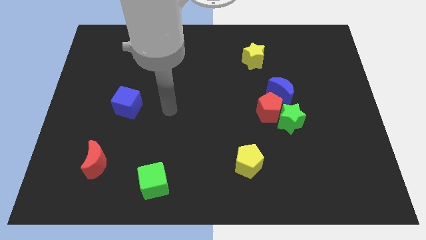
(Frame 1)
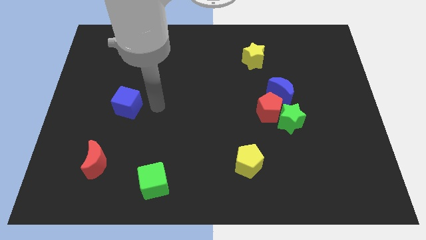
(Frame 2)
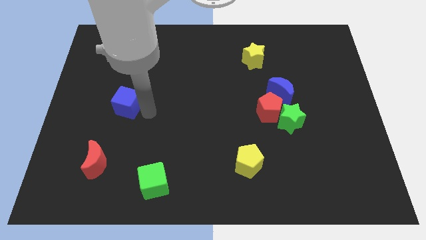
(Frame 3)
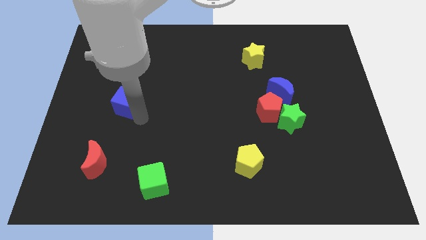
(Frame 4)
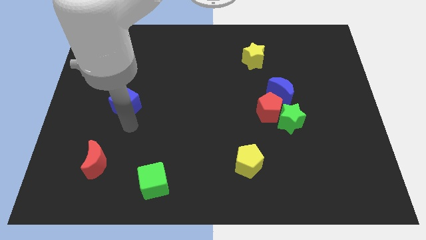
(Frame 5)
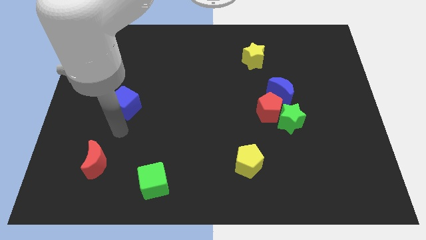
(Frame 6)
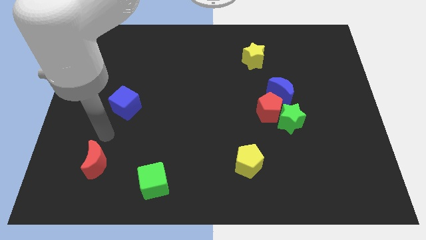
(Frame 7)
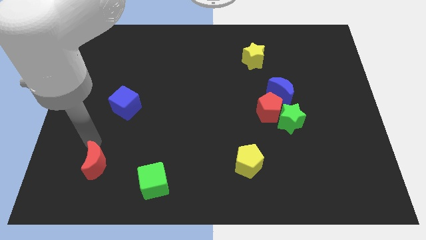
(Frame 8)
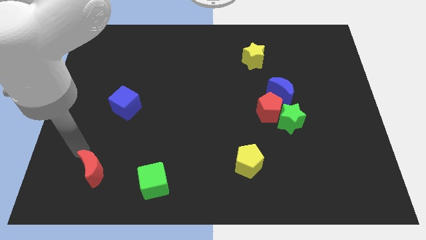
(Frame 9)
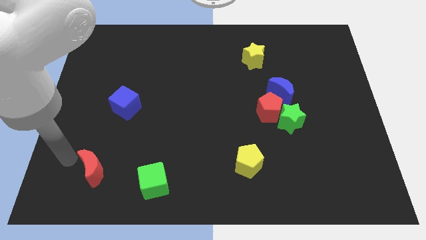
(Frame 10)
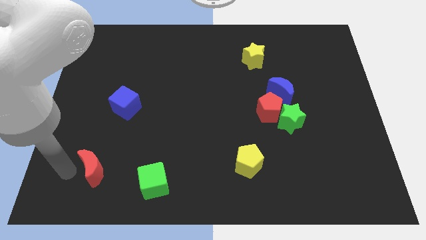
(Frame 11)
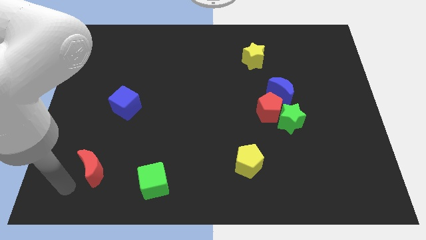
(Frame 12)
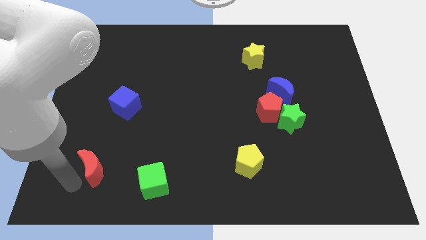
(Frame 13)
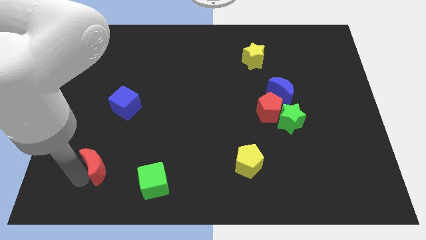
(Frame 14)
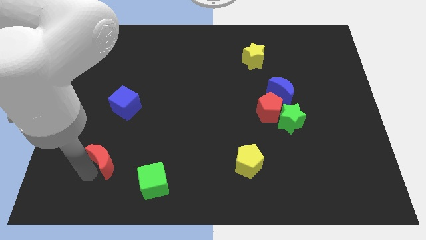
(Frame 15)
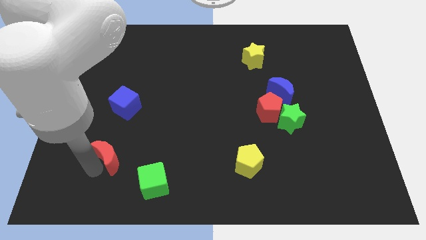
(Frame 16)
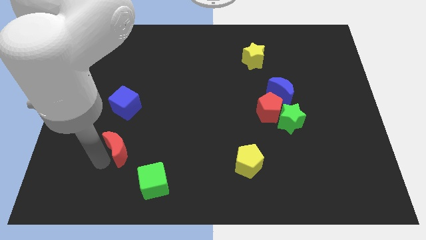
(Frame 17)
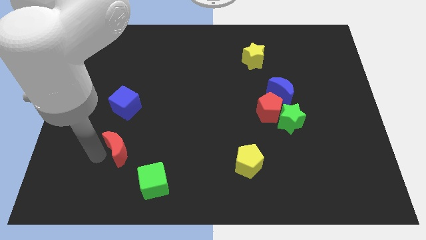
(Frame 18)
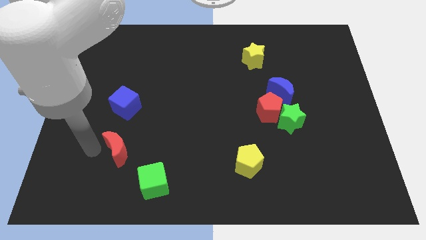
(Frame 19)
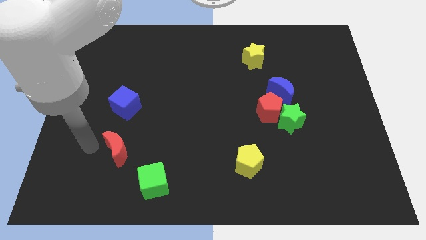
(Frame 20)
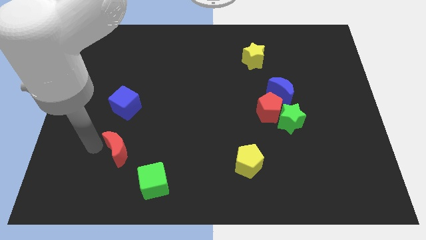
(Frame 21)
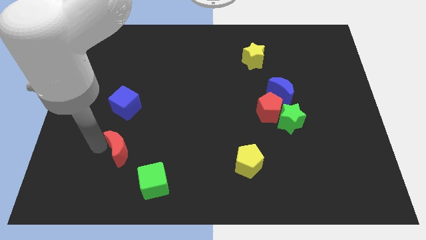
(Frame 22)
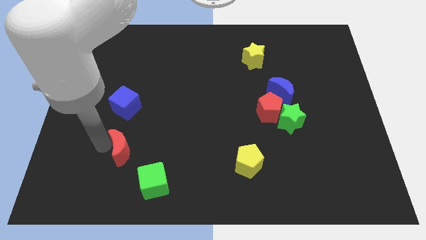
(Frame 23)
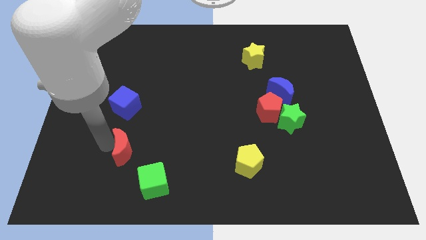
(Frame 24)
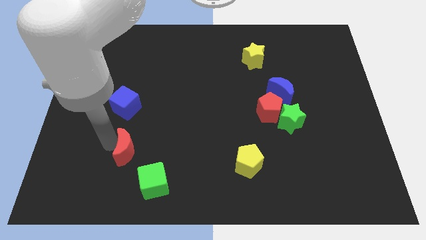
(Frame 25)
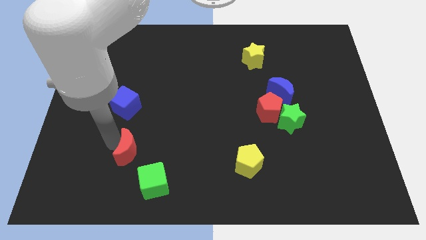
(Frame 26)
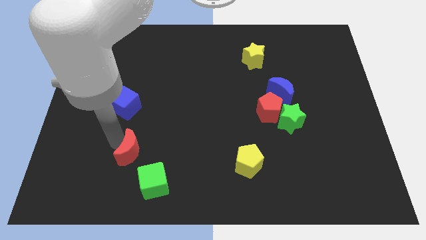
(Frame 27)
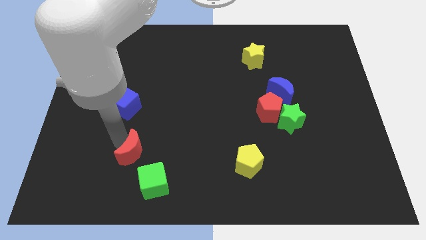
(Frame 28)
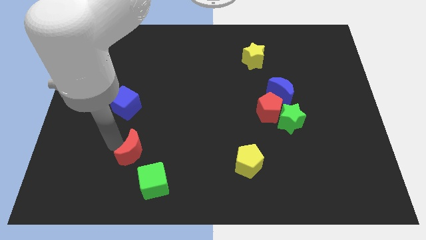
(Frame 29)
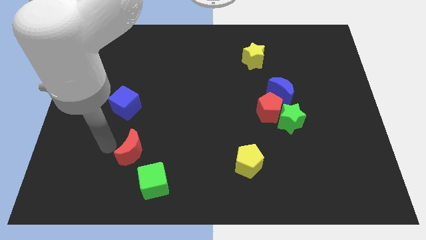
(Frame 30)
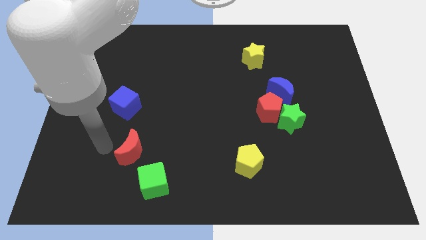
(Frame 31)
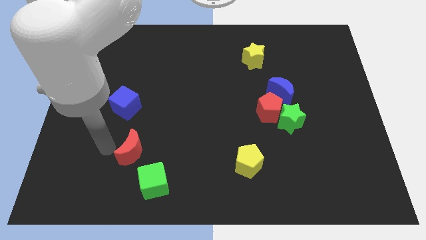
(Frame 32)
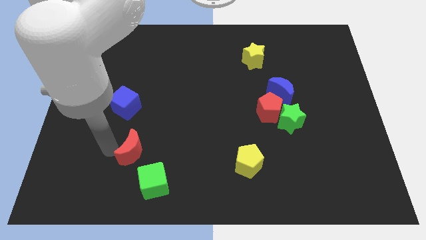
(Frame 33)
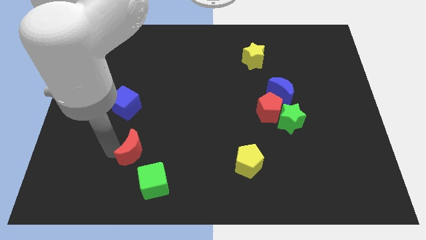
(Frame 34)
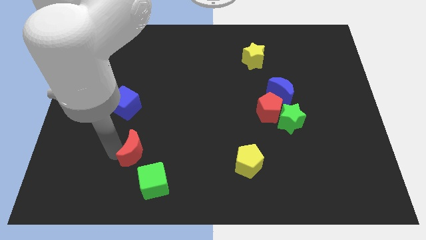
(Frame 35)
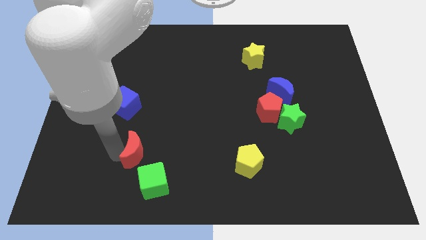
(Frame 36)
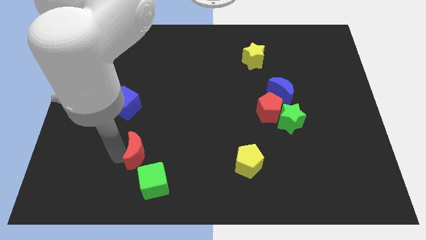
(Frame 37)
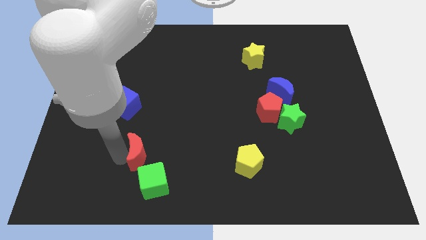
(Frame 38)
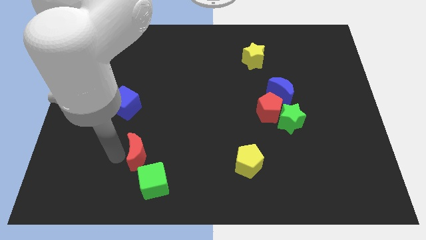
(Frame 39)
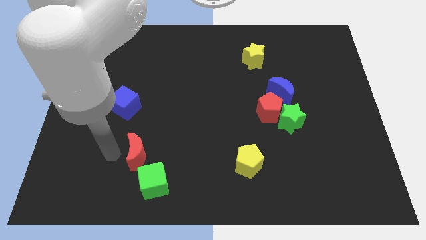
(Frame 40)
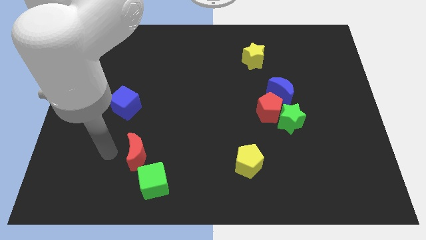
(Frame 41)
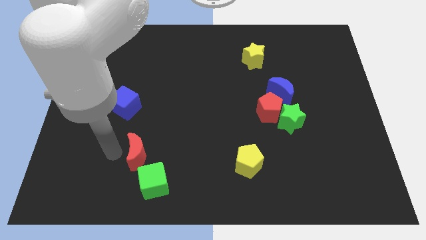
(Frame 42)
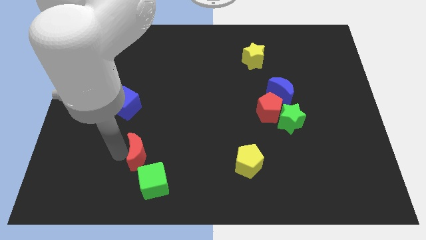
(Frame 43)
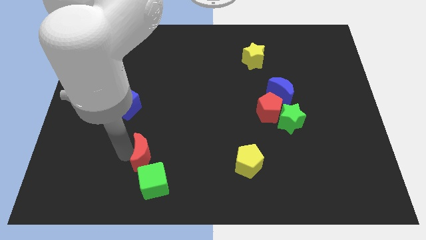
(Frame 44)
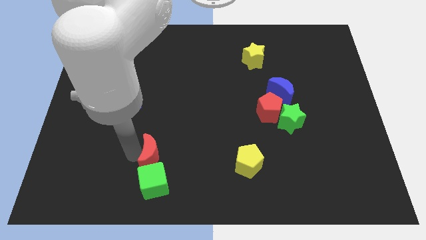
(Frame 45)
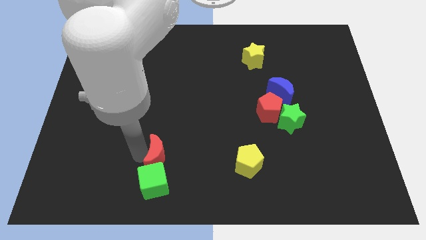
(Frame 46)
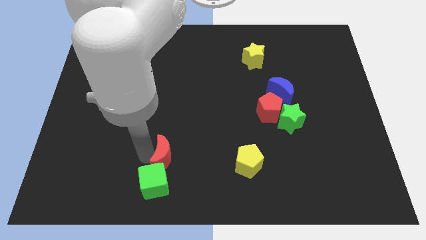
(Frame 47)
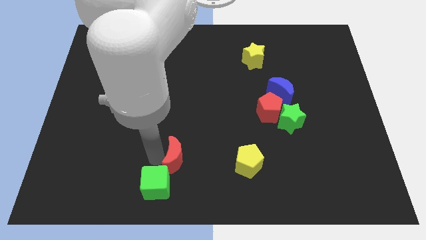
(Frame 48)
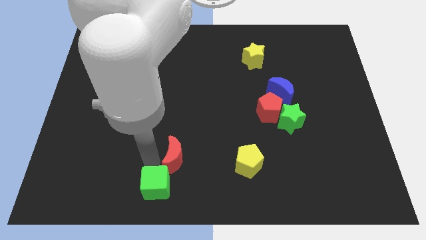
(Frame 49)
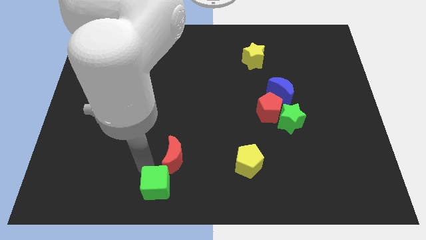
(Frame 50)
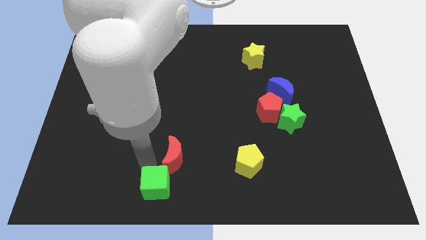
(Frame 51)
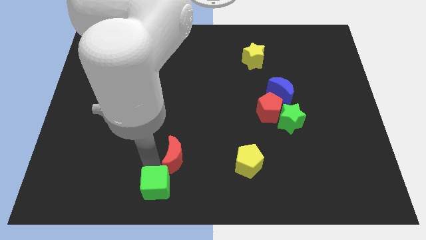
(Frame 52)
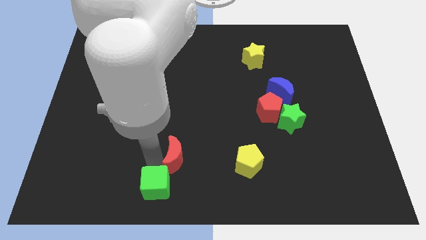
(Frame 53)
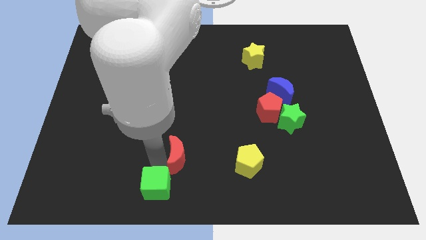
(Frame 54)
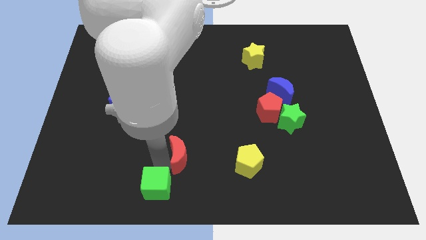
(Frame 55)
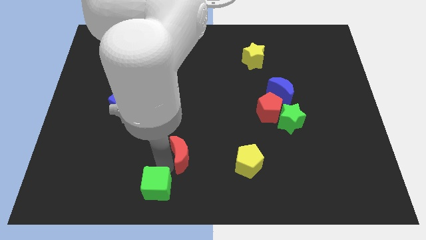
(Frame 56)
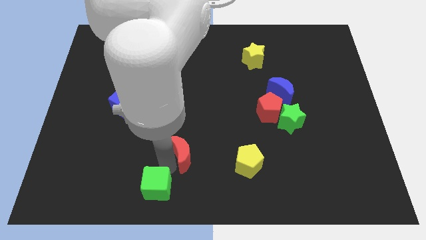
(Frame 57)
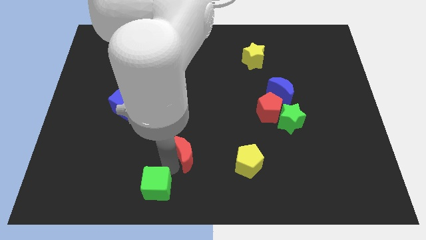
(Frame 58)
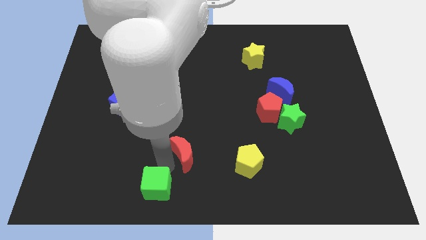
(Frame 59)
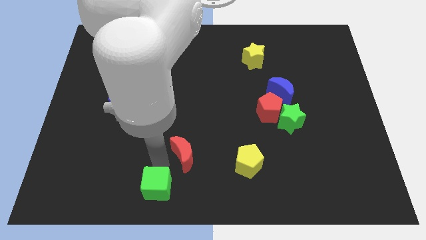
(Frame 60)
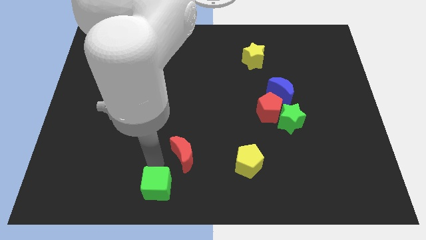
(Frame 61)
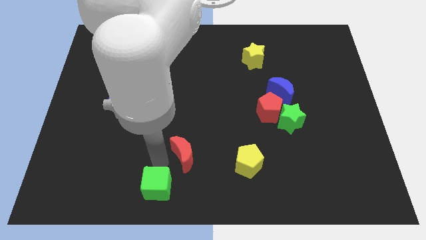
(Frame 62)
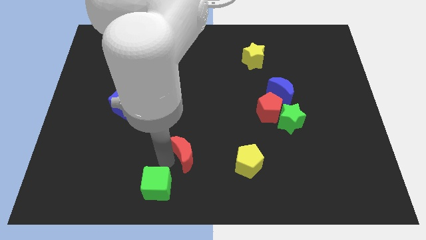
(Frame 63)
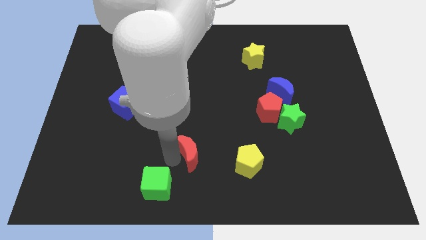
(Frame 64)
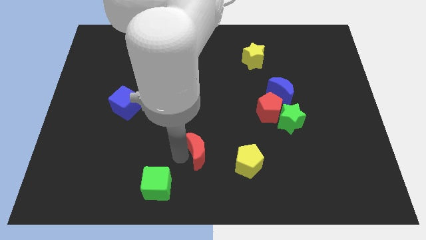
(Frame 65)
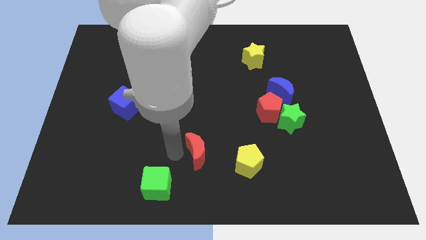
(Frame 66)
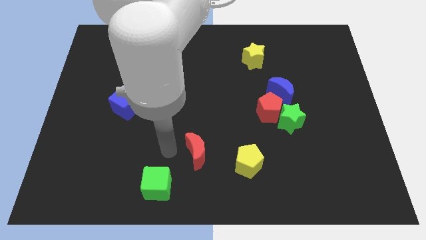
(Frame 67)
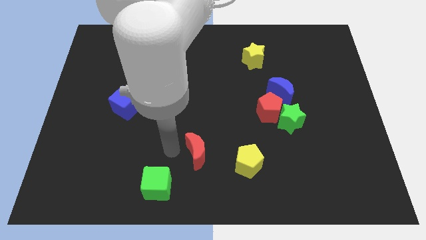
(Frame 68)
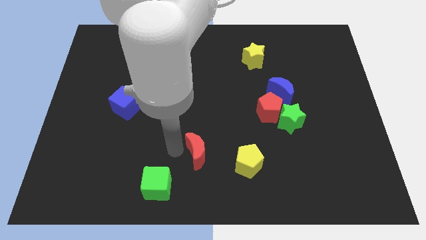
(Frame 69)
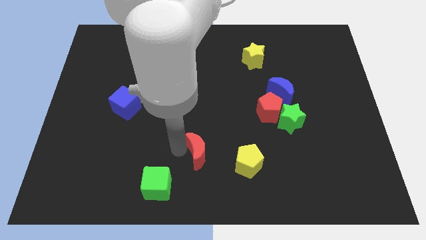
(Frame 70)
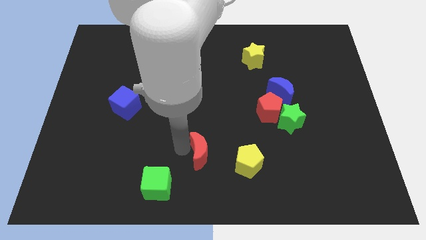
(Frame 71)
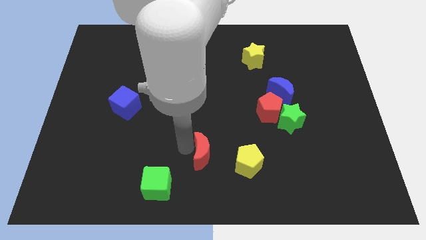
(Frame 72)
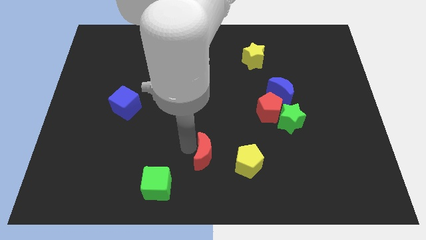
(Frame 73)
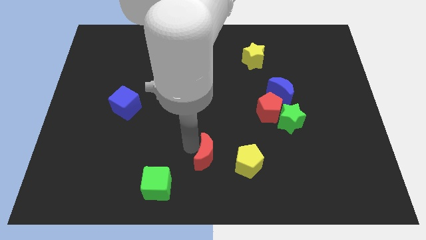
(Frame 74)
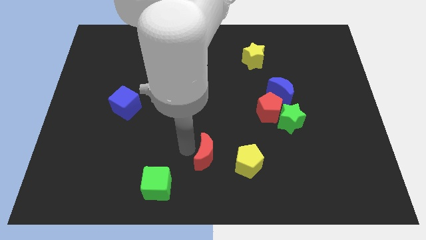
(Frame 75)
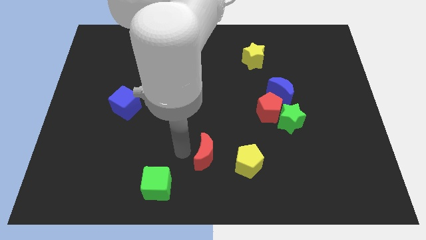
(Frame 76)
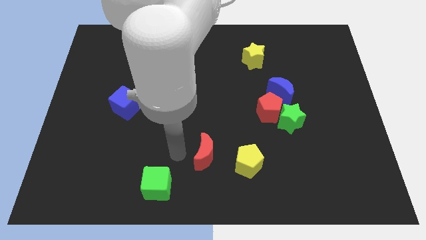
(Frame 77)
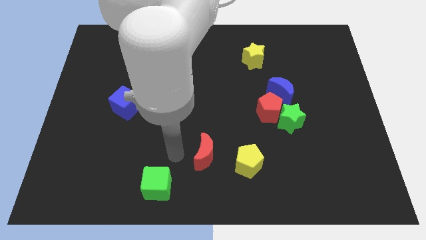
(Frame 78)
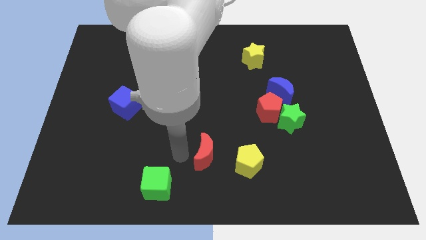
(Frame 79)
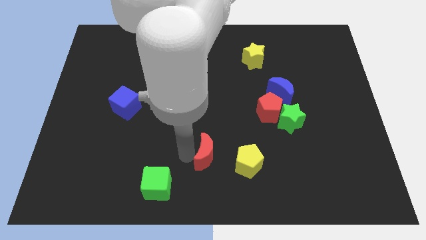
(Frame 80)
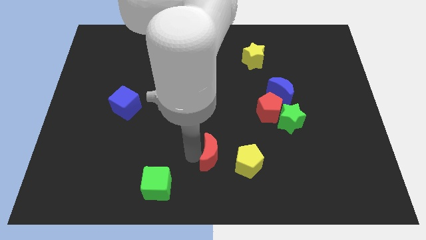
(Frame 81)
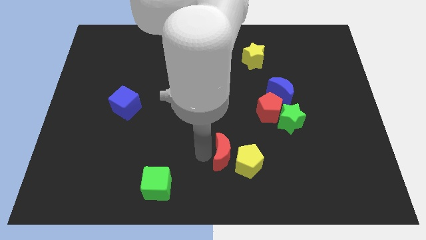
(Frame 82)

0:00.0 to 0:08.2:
move the red moon towards the yellow pentagon
